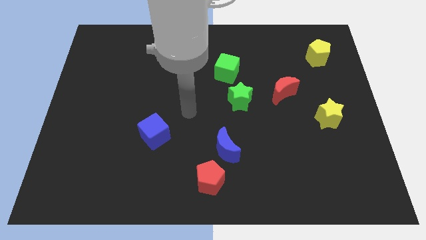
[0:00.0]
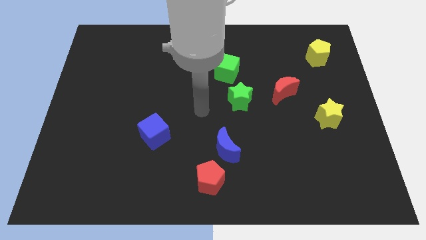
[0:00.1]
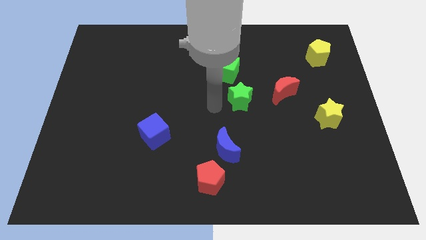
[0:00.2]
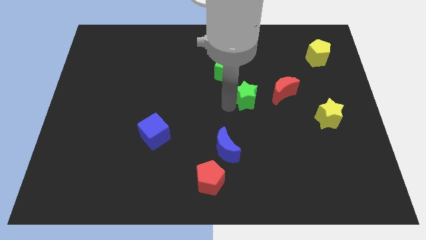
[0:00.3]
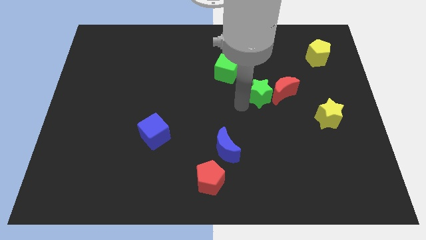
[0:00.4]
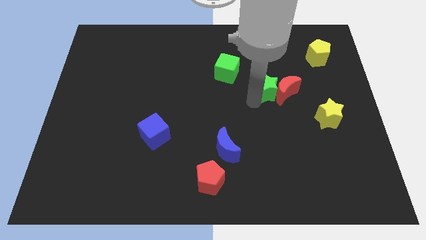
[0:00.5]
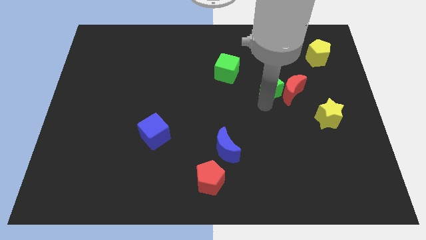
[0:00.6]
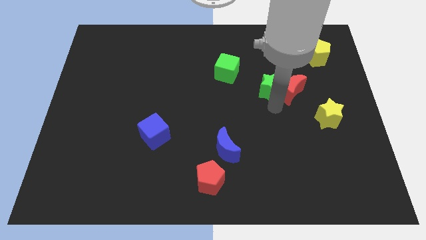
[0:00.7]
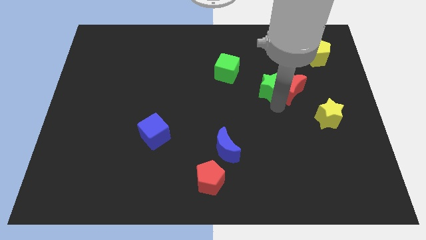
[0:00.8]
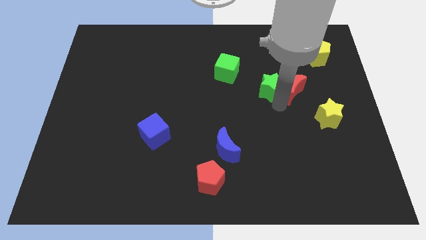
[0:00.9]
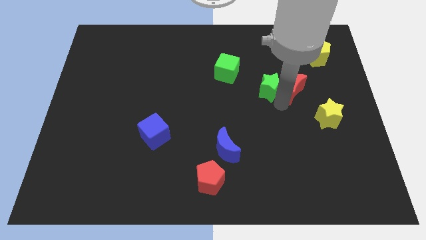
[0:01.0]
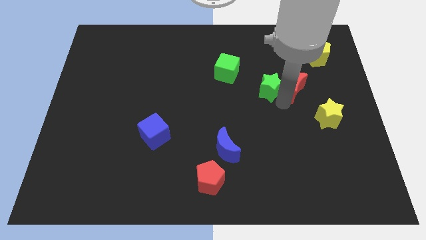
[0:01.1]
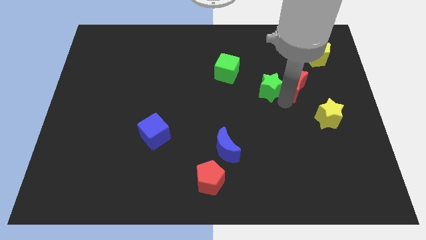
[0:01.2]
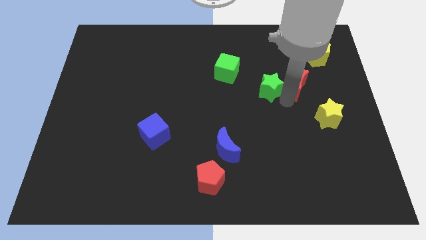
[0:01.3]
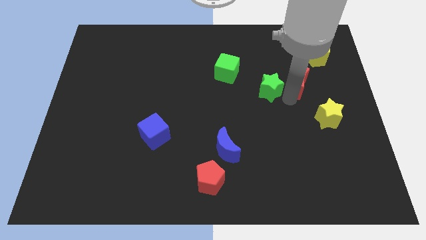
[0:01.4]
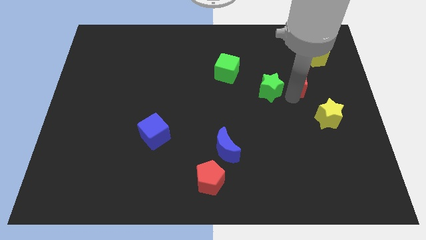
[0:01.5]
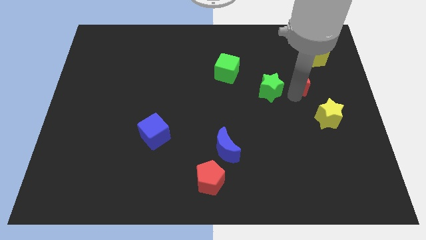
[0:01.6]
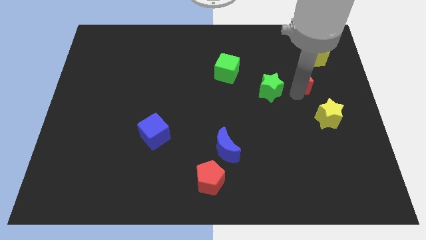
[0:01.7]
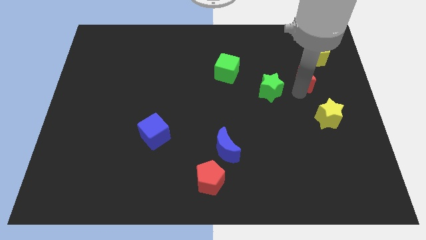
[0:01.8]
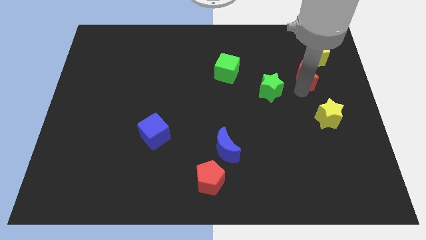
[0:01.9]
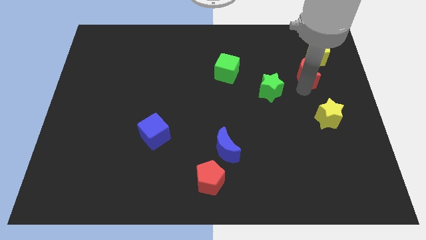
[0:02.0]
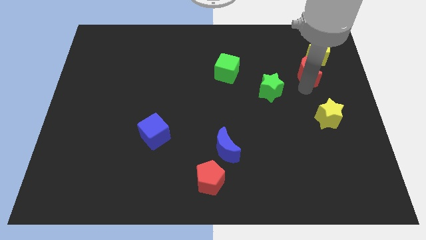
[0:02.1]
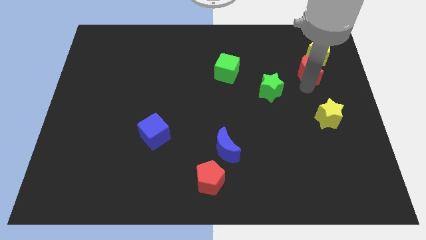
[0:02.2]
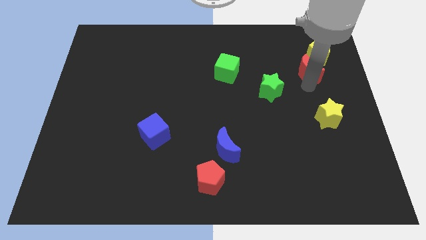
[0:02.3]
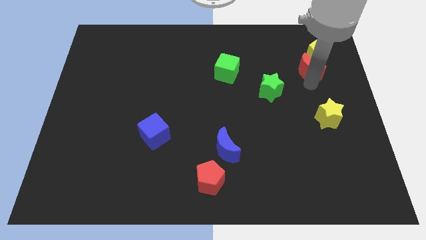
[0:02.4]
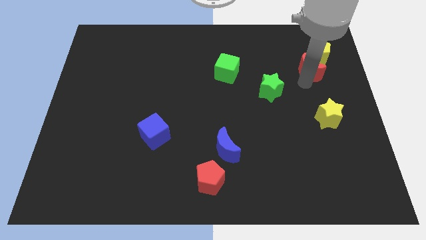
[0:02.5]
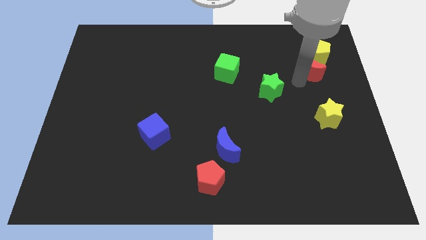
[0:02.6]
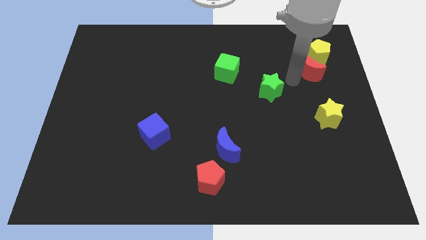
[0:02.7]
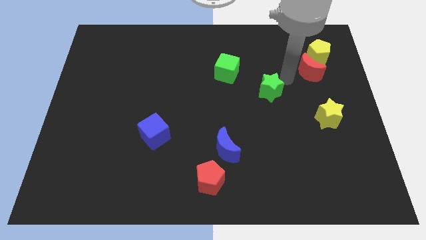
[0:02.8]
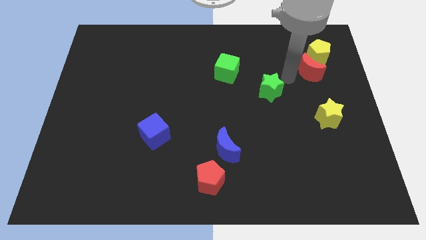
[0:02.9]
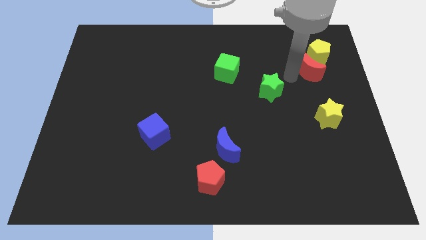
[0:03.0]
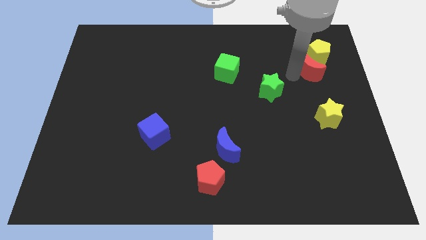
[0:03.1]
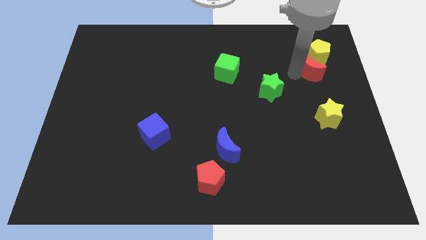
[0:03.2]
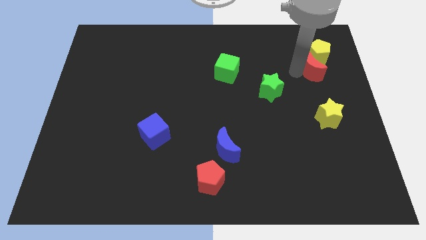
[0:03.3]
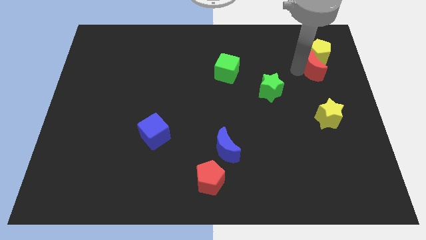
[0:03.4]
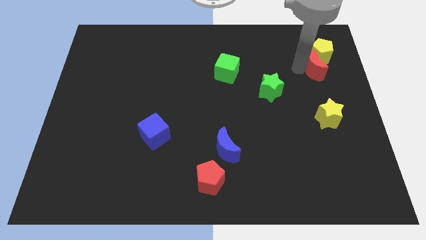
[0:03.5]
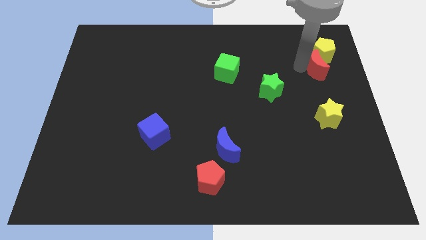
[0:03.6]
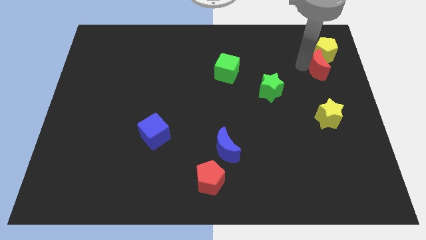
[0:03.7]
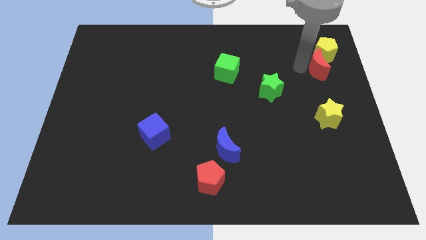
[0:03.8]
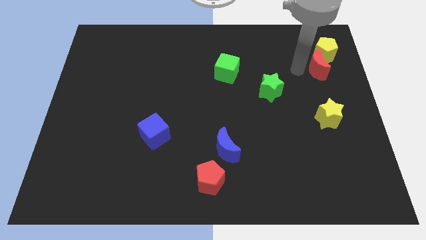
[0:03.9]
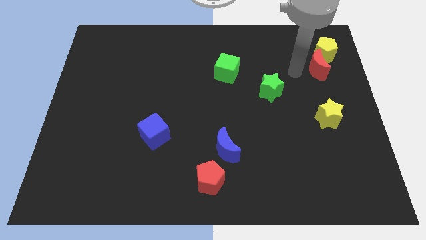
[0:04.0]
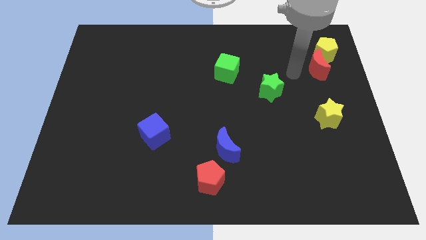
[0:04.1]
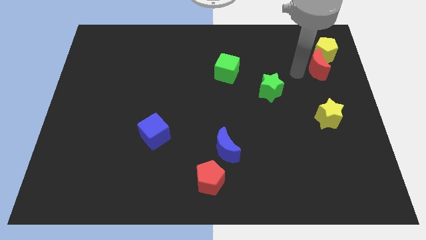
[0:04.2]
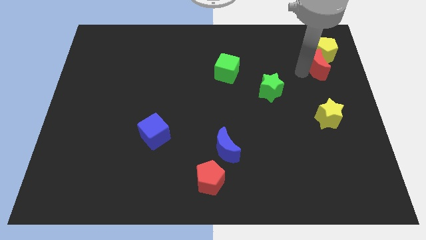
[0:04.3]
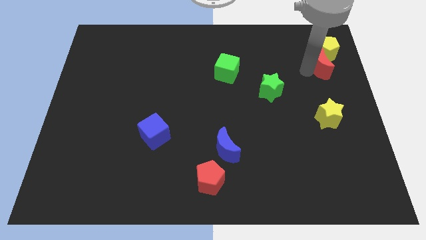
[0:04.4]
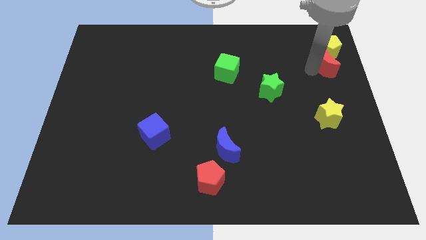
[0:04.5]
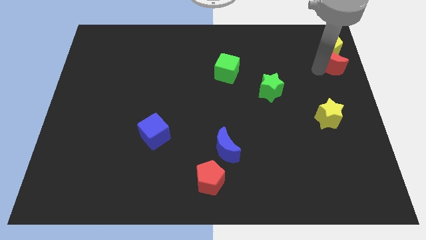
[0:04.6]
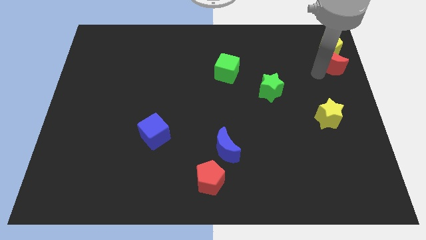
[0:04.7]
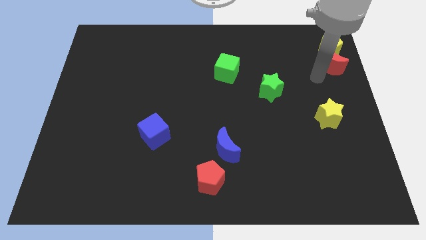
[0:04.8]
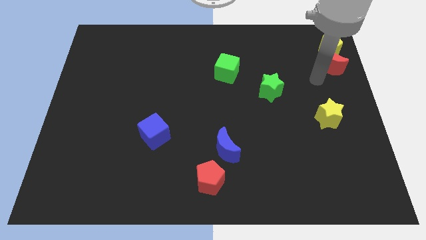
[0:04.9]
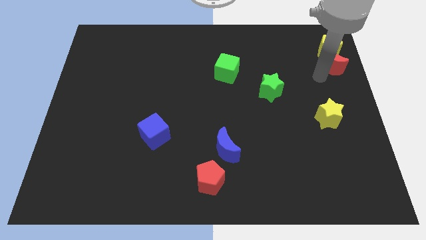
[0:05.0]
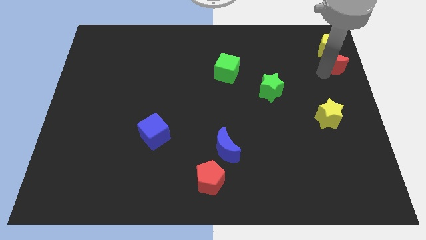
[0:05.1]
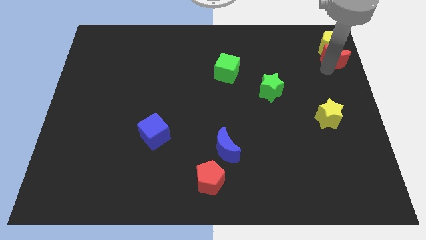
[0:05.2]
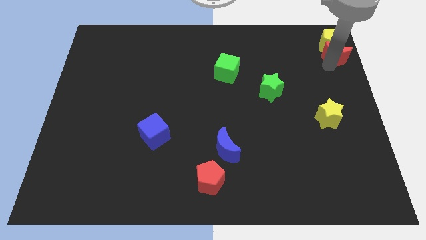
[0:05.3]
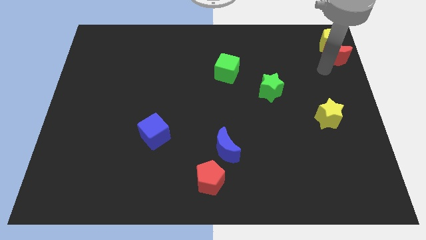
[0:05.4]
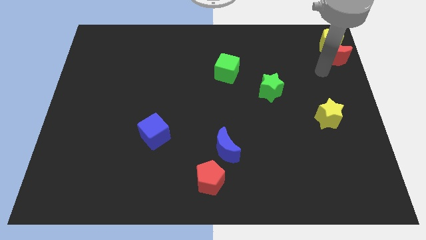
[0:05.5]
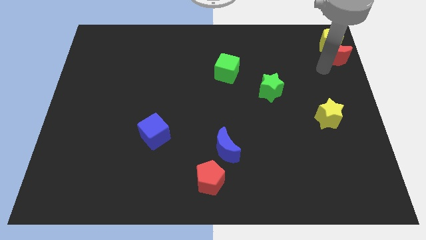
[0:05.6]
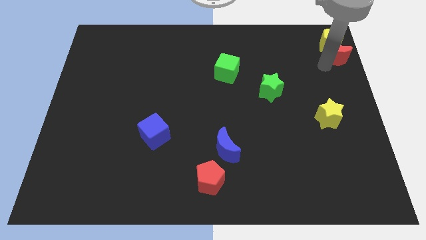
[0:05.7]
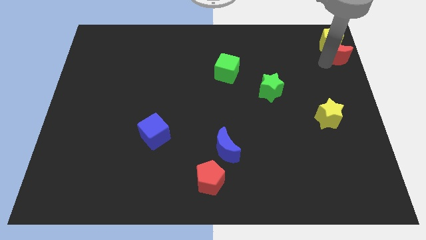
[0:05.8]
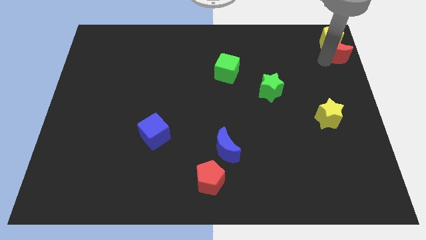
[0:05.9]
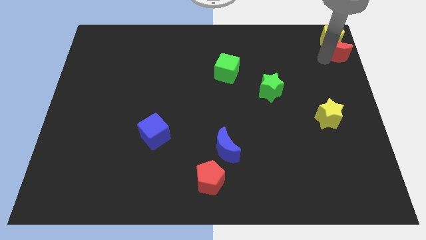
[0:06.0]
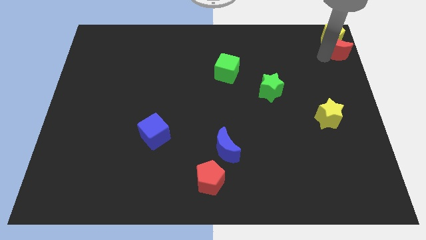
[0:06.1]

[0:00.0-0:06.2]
push the red moon to the top right
